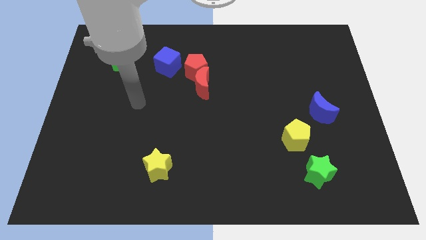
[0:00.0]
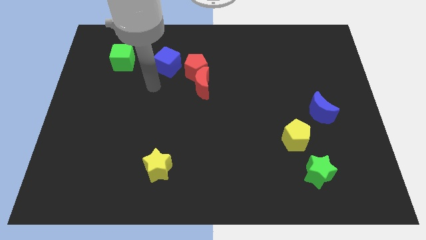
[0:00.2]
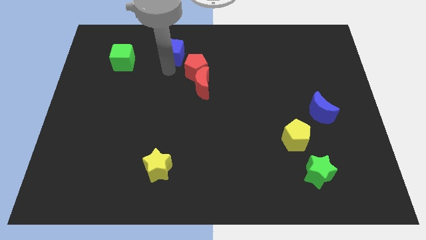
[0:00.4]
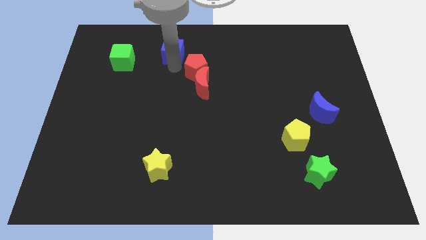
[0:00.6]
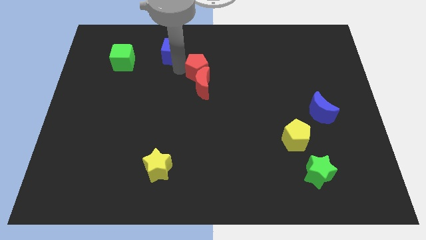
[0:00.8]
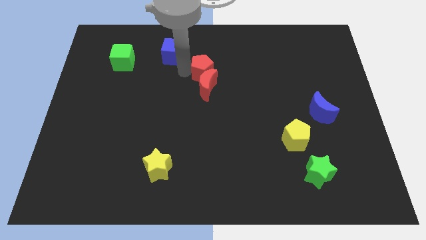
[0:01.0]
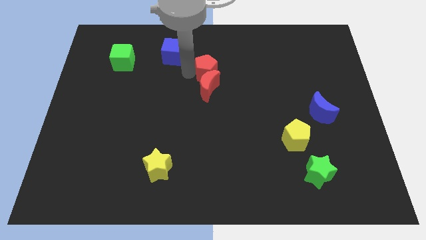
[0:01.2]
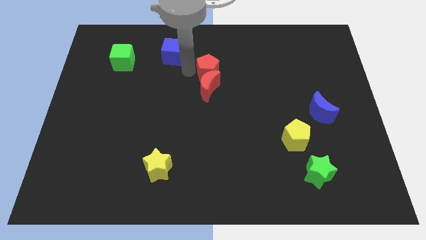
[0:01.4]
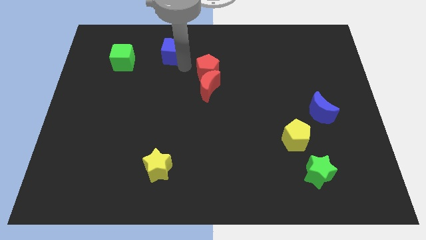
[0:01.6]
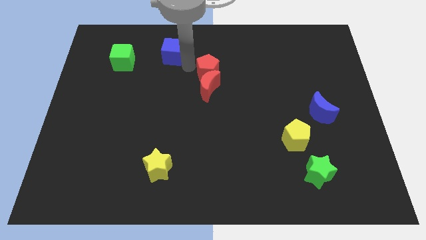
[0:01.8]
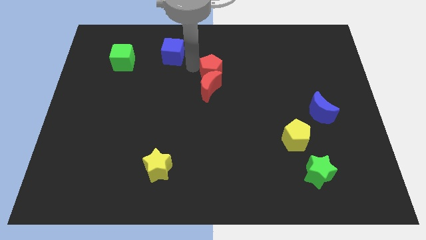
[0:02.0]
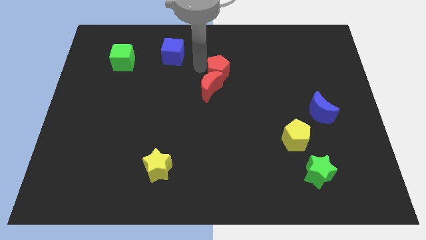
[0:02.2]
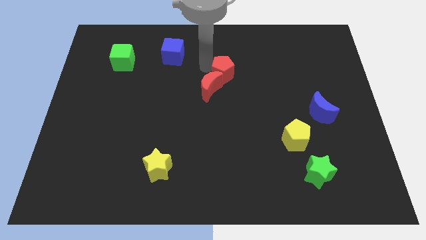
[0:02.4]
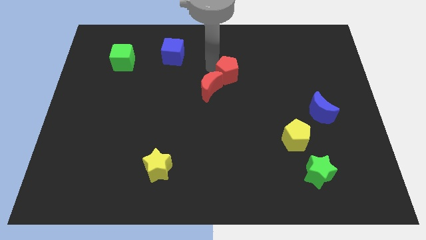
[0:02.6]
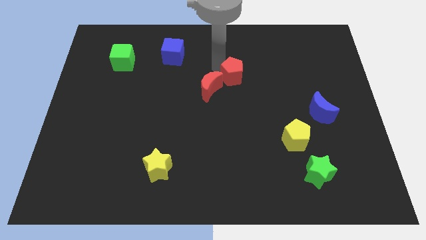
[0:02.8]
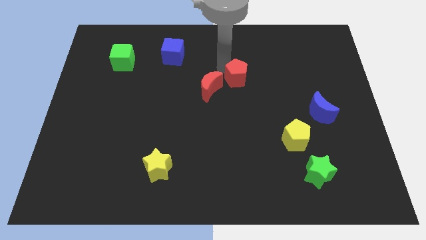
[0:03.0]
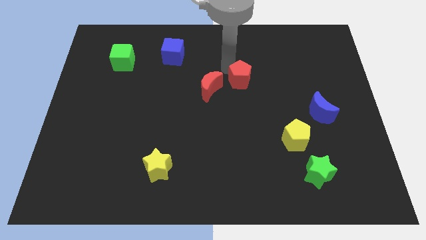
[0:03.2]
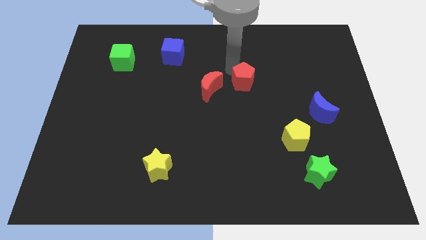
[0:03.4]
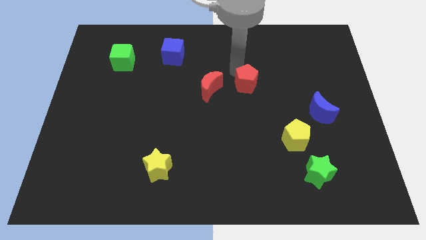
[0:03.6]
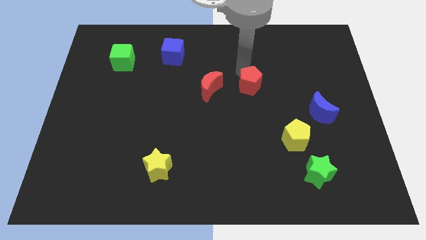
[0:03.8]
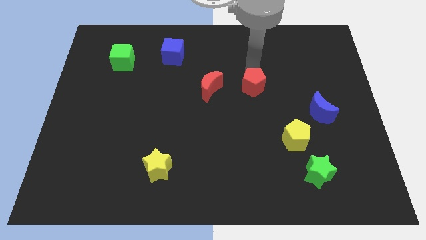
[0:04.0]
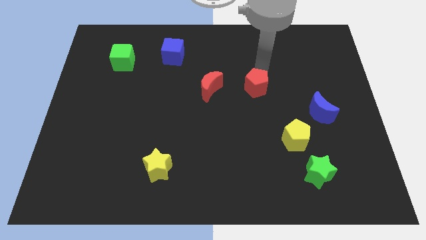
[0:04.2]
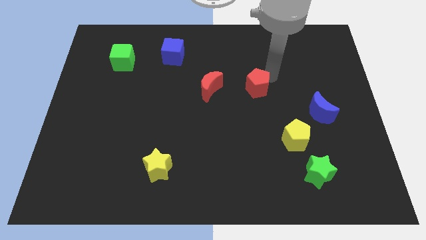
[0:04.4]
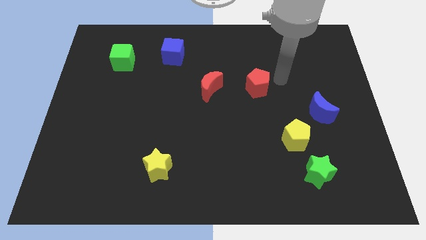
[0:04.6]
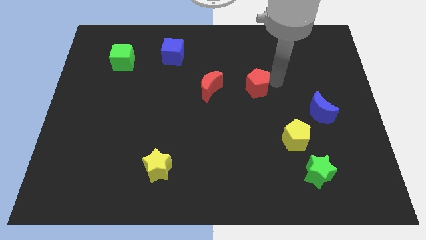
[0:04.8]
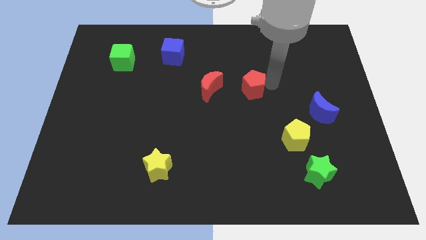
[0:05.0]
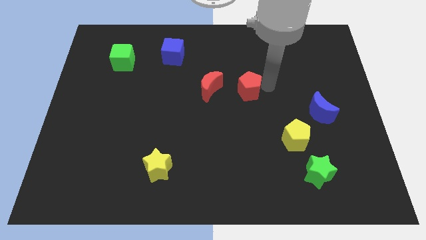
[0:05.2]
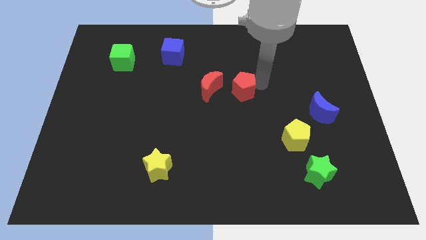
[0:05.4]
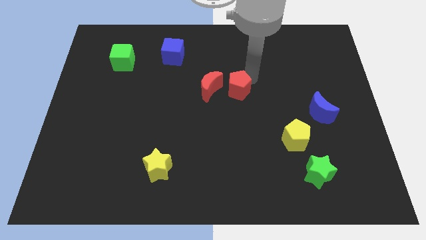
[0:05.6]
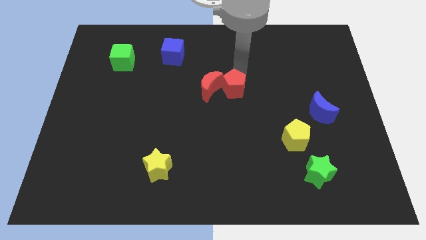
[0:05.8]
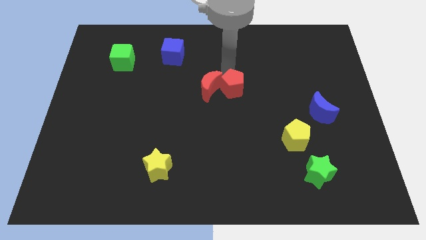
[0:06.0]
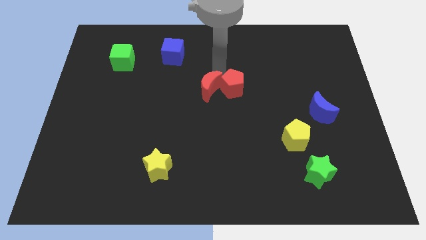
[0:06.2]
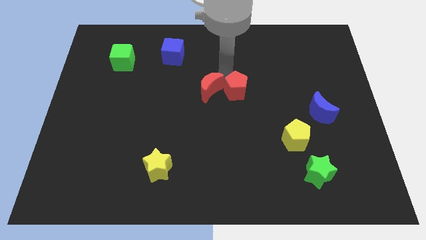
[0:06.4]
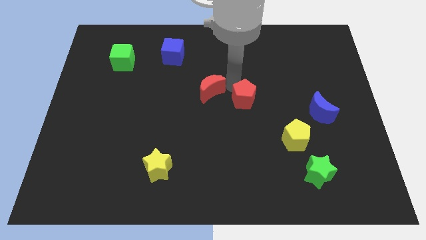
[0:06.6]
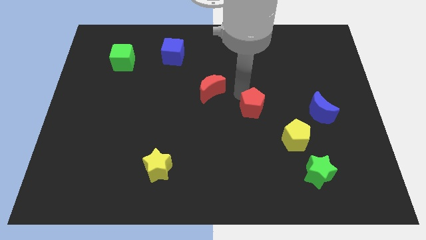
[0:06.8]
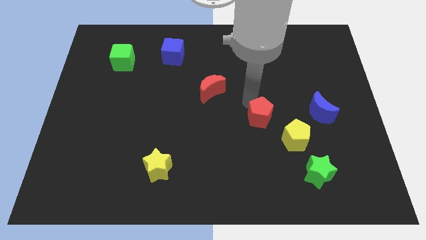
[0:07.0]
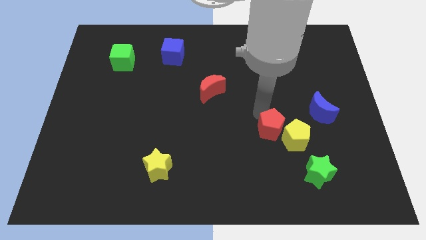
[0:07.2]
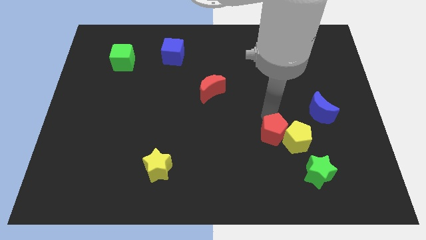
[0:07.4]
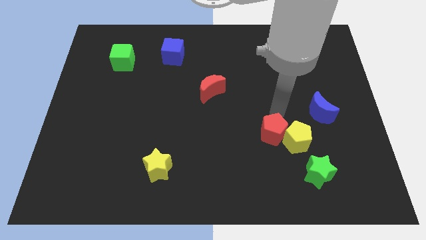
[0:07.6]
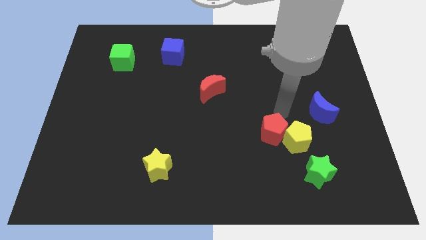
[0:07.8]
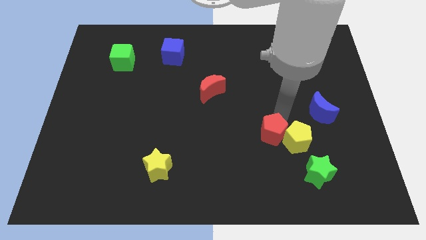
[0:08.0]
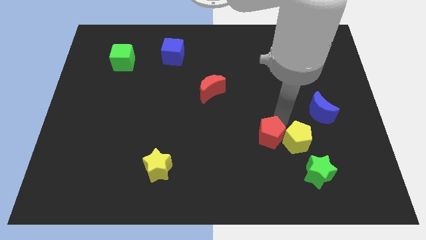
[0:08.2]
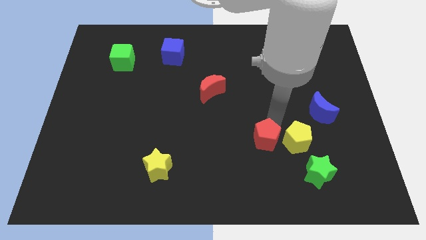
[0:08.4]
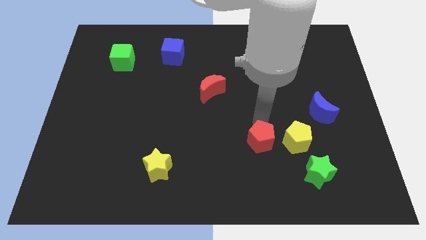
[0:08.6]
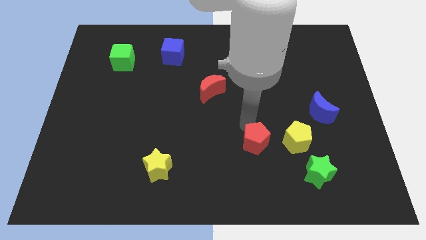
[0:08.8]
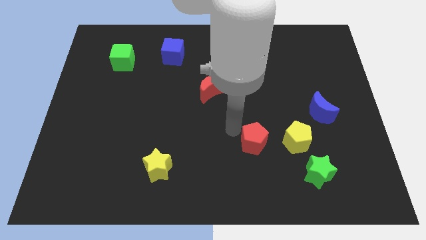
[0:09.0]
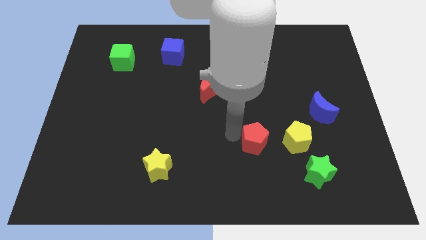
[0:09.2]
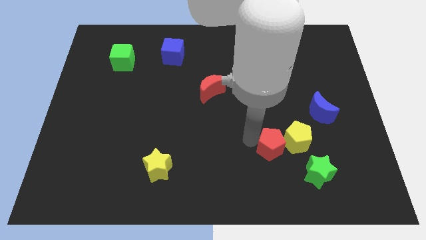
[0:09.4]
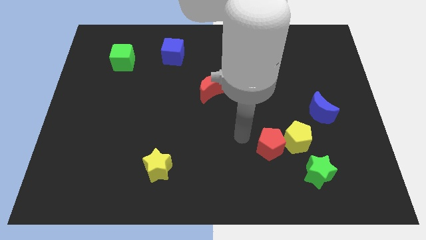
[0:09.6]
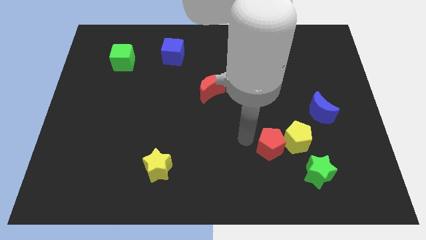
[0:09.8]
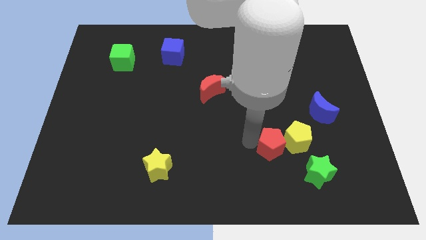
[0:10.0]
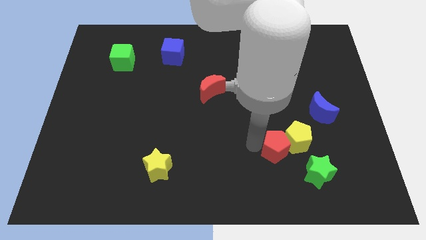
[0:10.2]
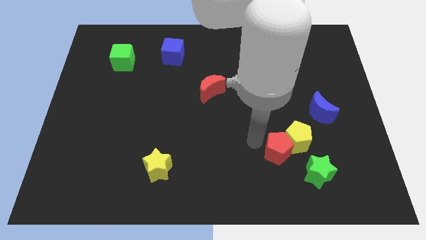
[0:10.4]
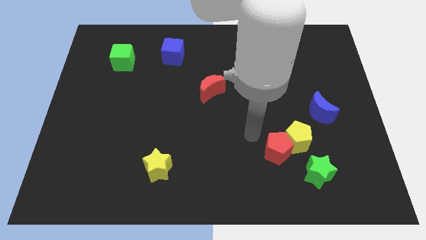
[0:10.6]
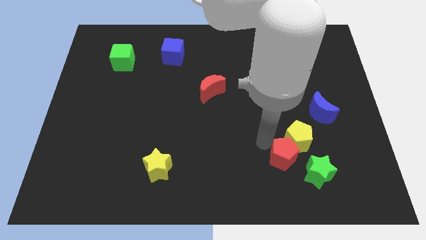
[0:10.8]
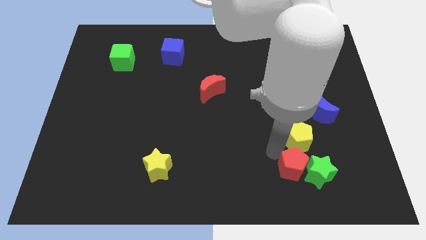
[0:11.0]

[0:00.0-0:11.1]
put the red pentagon towards the green star
